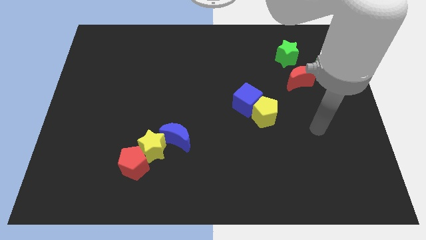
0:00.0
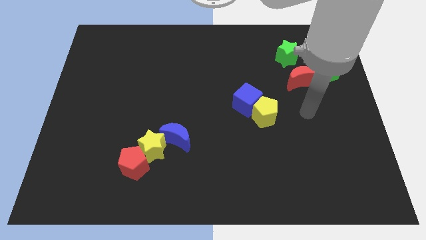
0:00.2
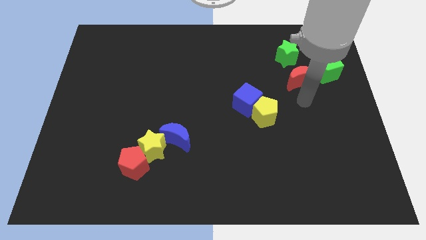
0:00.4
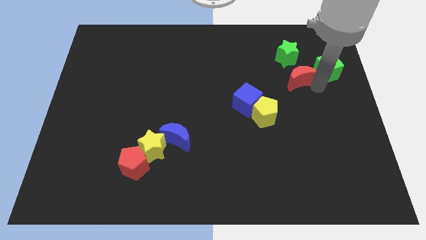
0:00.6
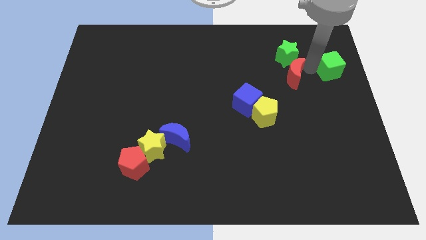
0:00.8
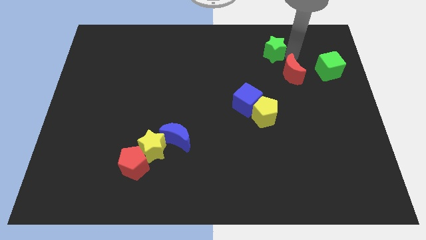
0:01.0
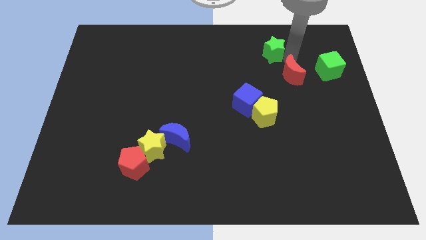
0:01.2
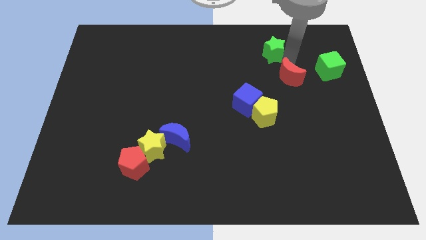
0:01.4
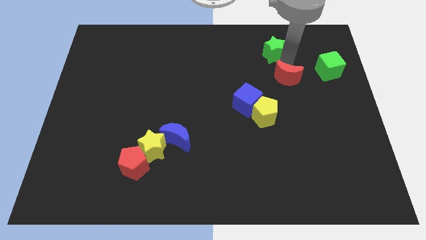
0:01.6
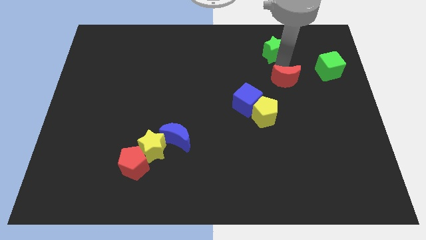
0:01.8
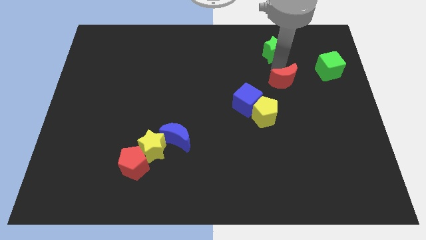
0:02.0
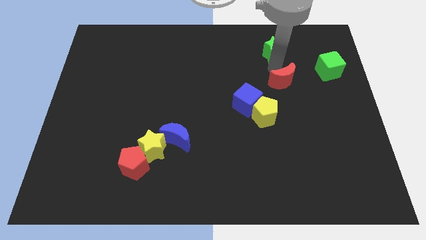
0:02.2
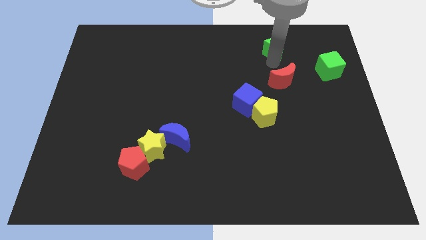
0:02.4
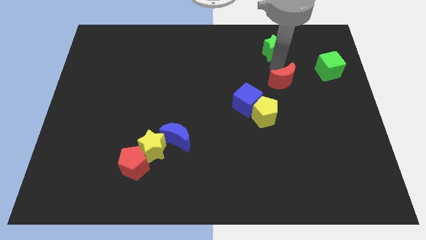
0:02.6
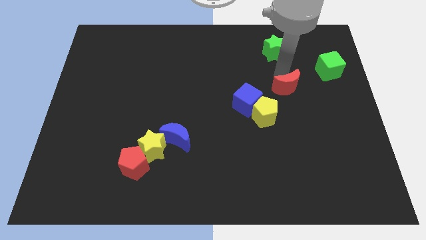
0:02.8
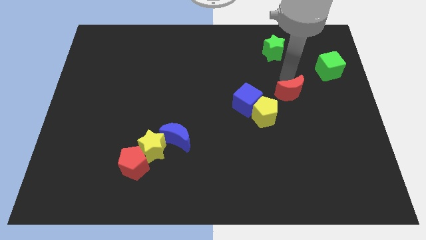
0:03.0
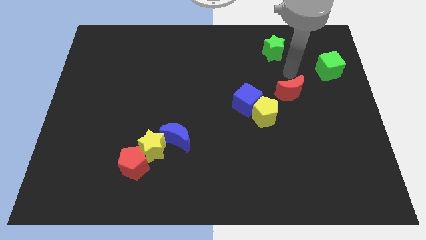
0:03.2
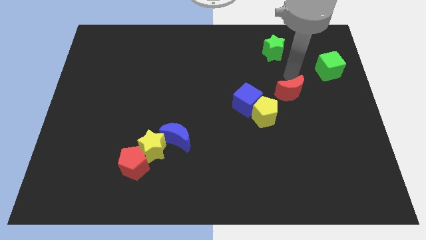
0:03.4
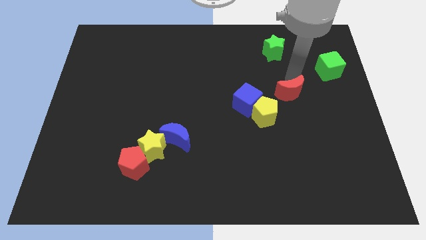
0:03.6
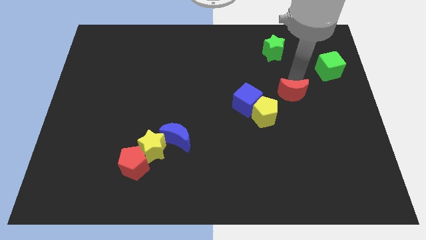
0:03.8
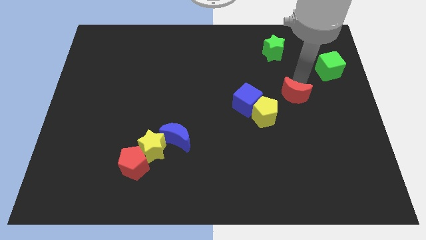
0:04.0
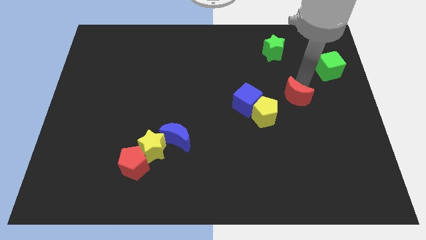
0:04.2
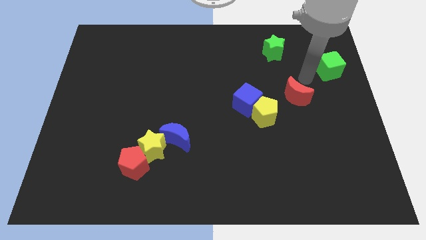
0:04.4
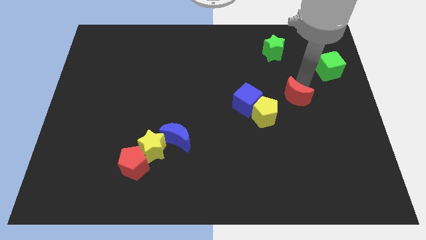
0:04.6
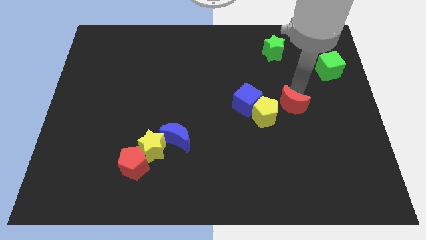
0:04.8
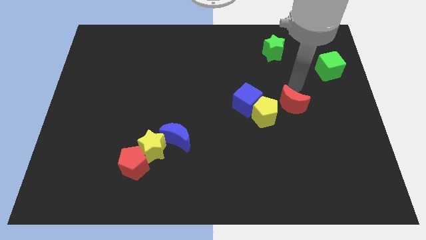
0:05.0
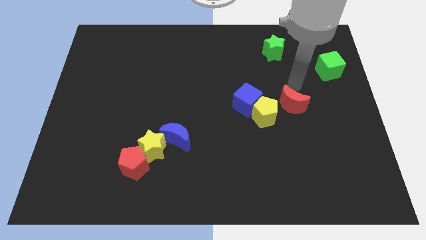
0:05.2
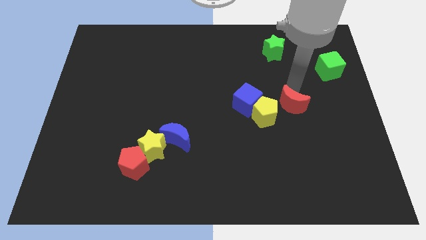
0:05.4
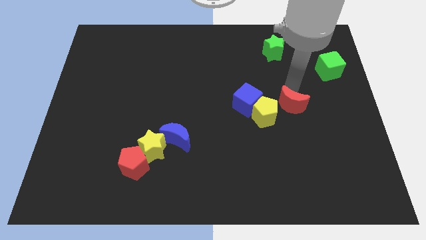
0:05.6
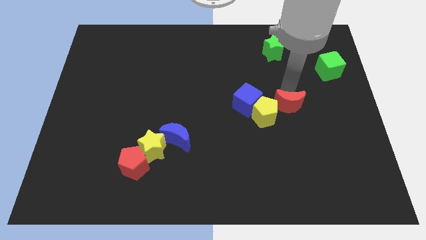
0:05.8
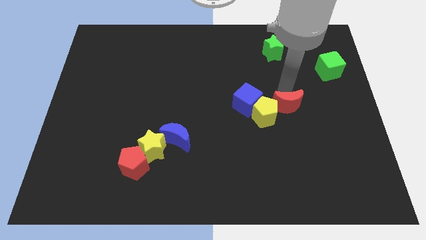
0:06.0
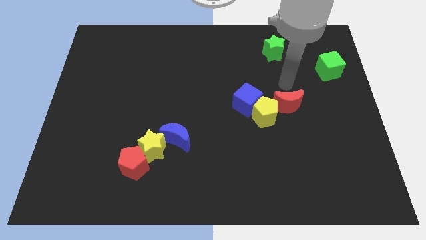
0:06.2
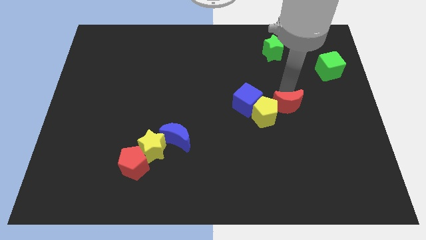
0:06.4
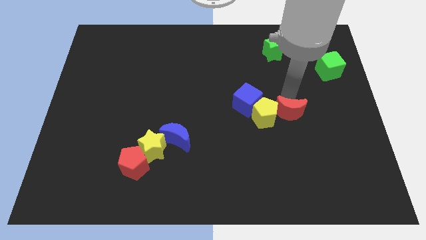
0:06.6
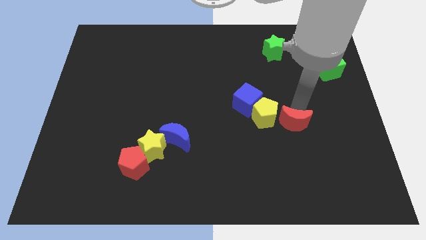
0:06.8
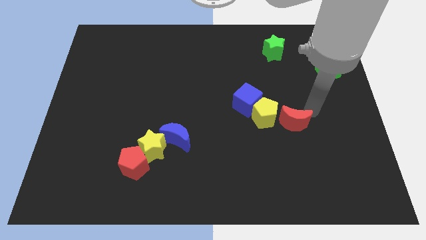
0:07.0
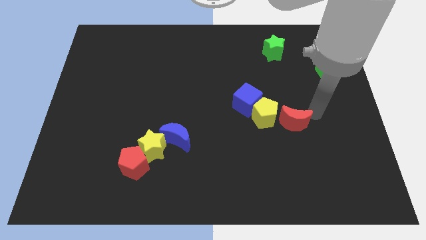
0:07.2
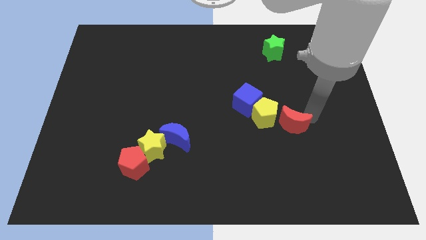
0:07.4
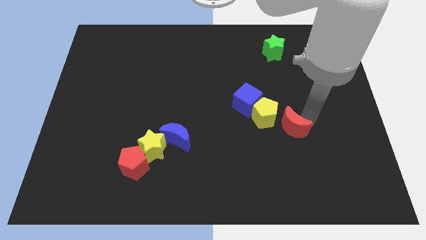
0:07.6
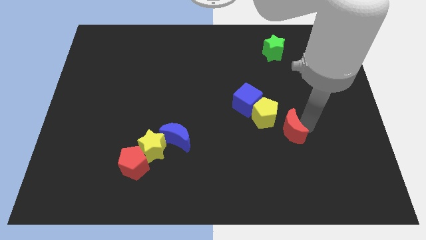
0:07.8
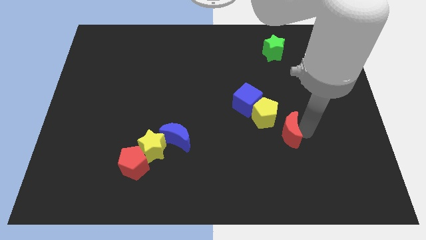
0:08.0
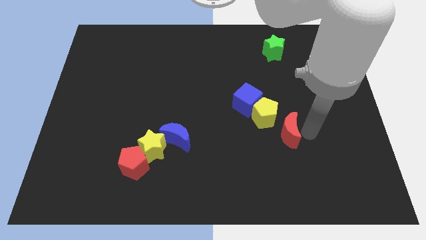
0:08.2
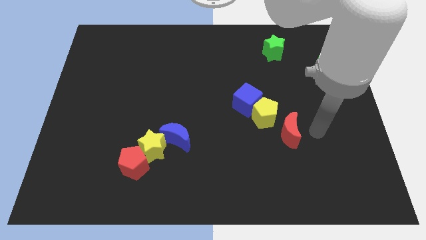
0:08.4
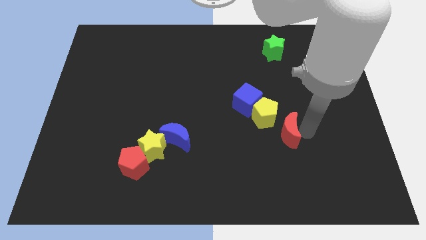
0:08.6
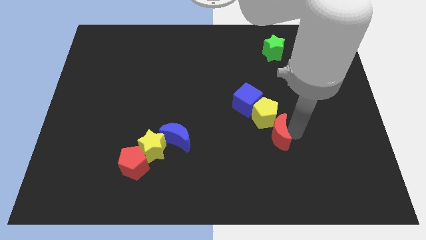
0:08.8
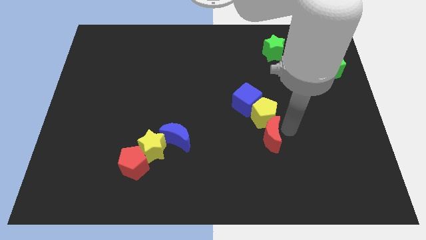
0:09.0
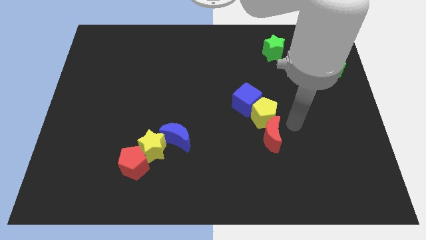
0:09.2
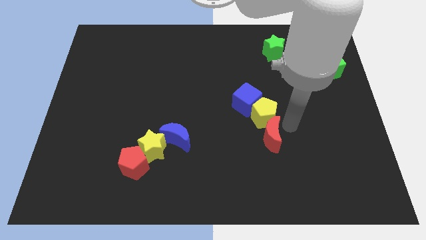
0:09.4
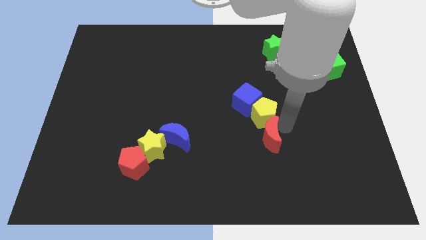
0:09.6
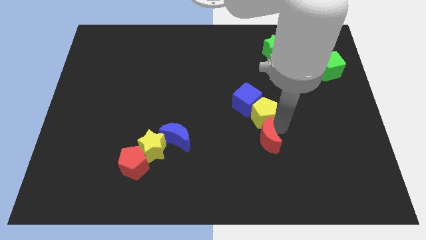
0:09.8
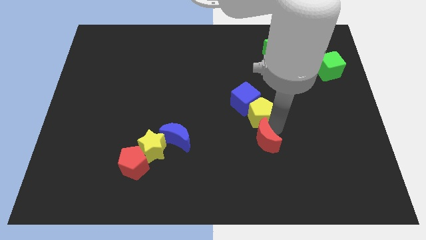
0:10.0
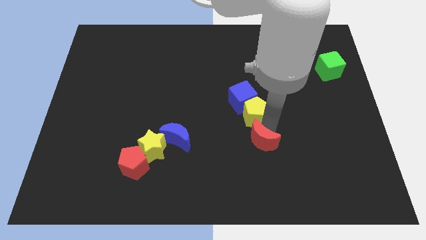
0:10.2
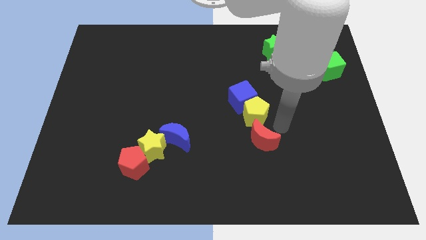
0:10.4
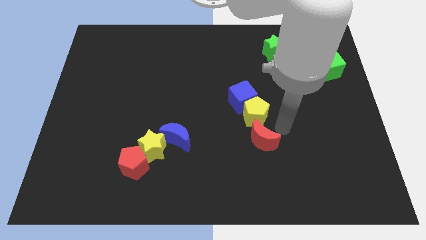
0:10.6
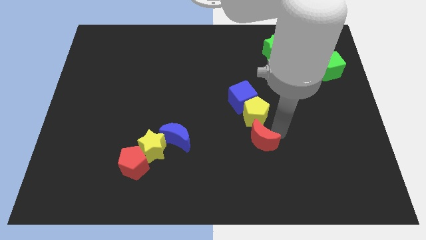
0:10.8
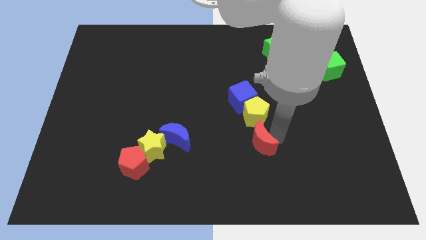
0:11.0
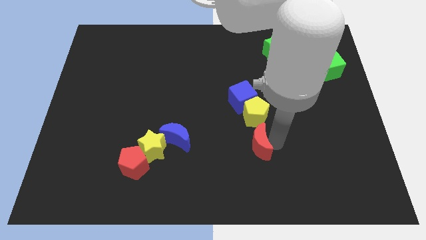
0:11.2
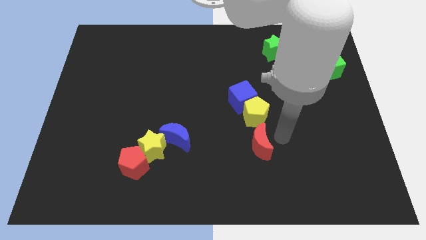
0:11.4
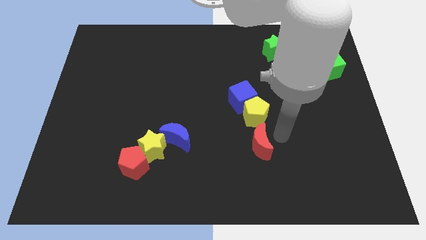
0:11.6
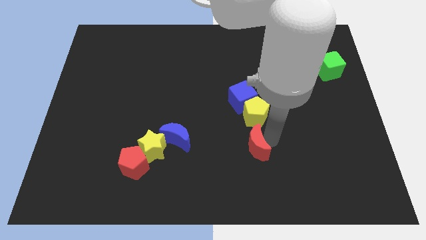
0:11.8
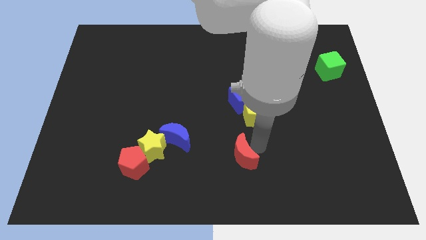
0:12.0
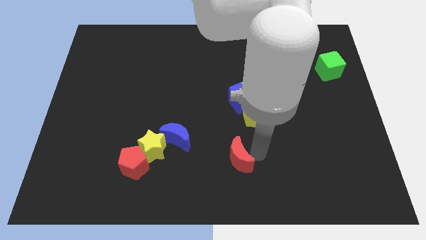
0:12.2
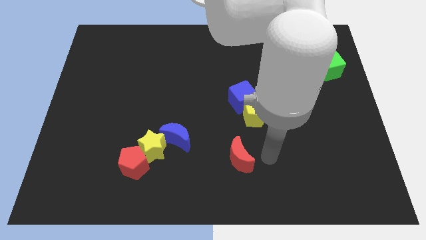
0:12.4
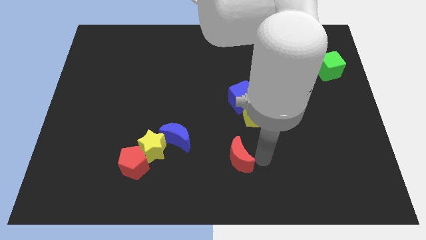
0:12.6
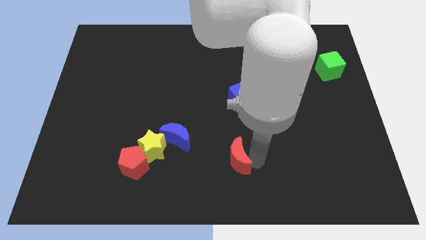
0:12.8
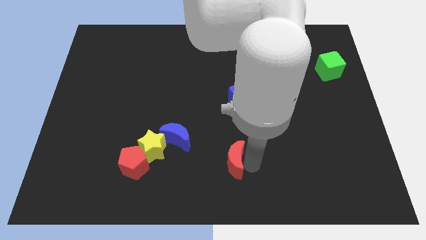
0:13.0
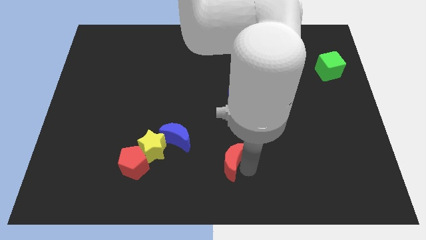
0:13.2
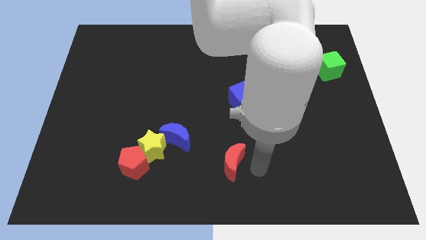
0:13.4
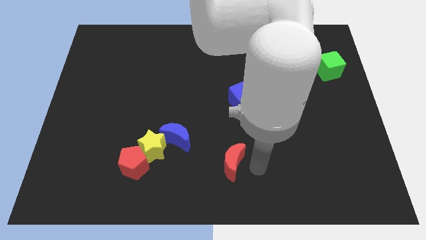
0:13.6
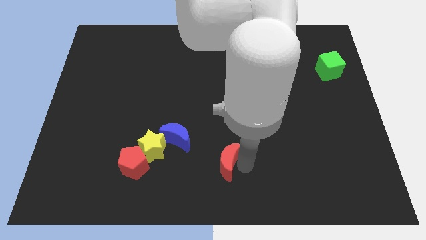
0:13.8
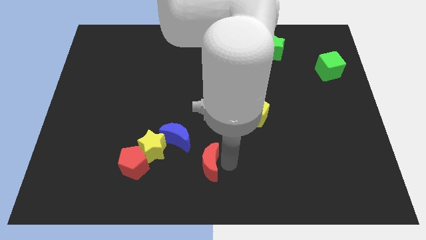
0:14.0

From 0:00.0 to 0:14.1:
slide the red moon just right of the red pentagon

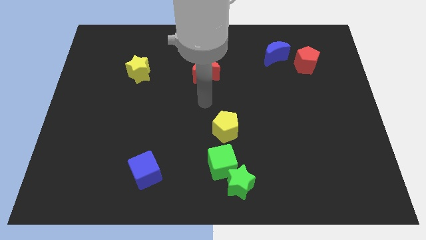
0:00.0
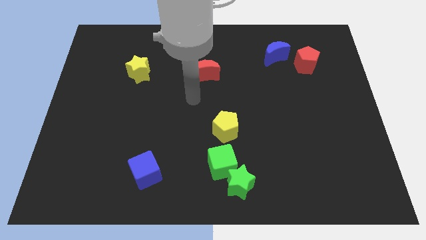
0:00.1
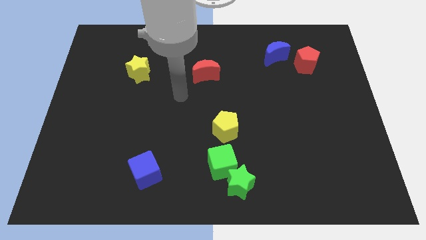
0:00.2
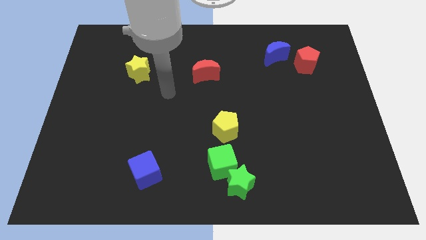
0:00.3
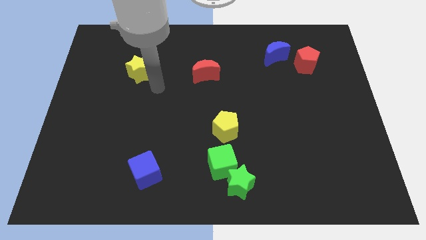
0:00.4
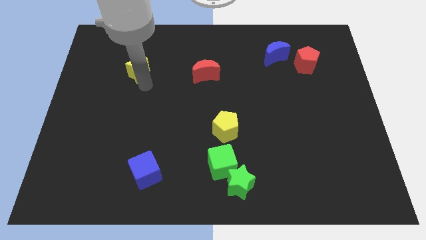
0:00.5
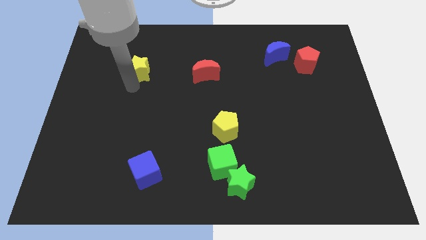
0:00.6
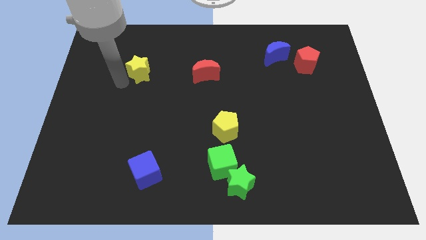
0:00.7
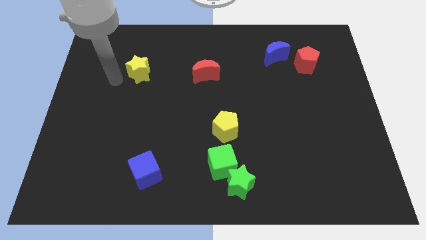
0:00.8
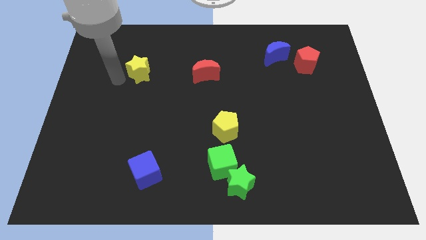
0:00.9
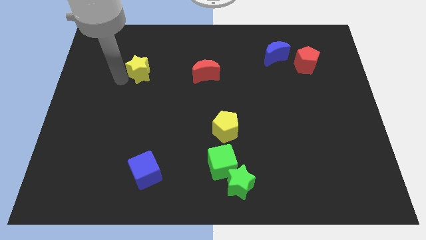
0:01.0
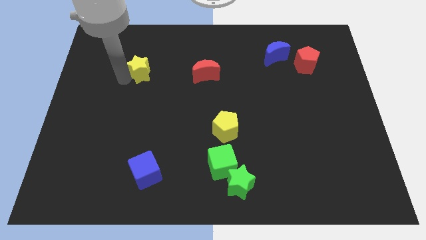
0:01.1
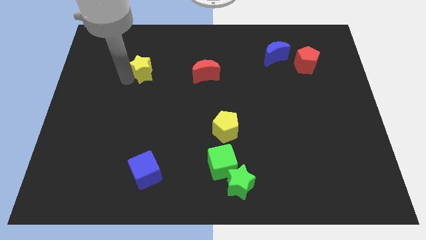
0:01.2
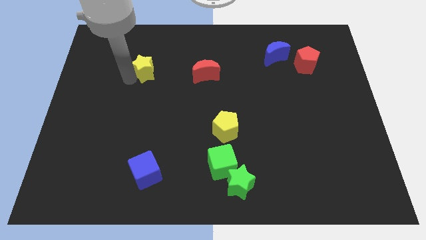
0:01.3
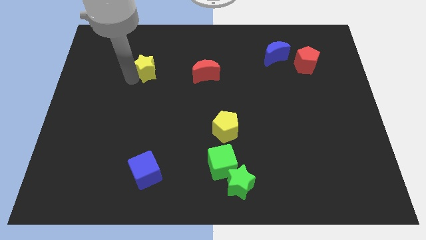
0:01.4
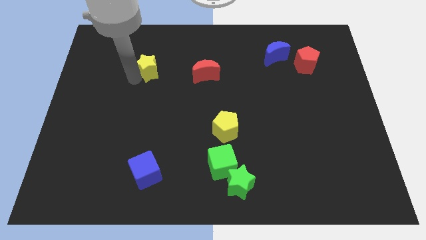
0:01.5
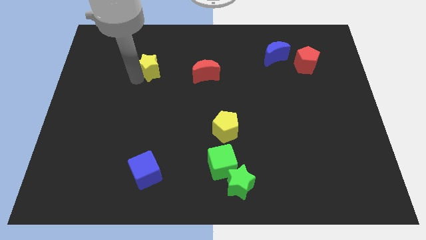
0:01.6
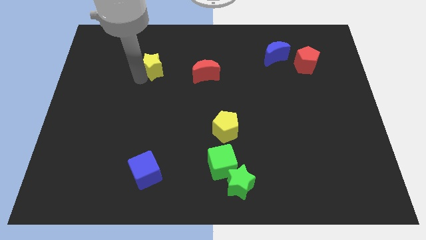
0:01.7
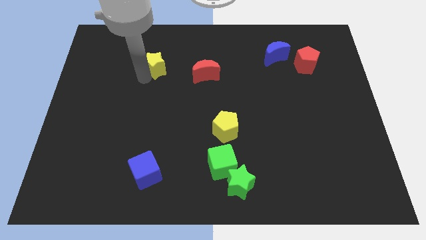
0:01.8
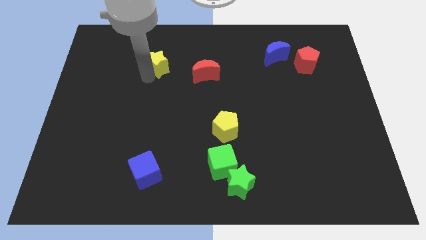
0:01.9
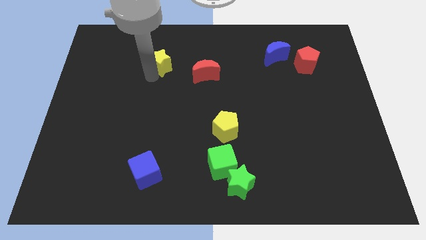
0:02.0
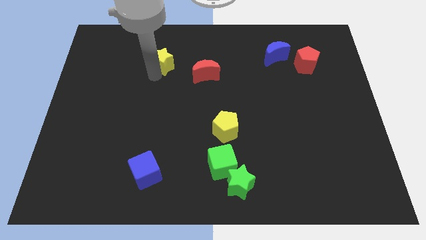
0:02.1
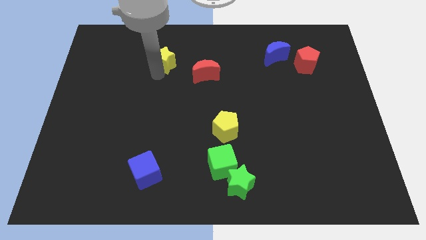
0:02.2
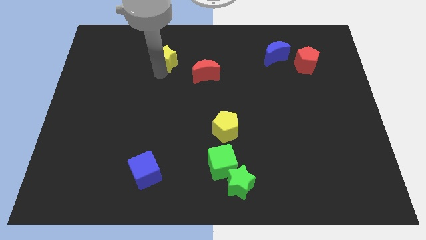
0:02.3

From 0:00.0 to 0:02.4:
push the yellow star diagonally up and to the left of the red moon
